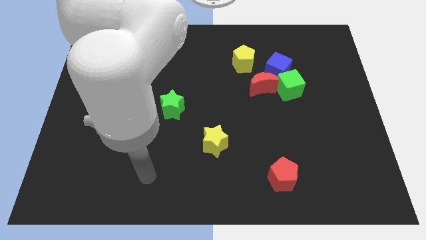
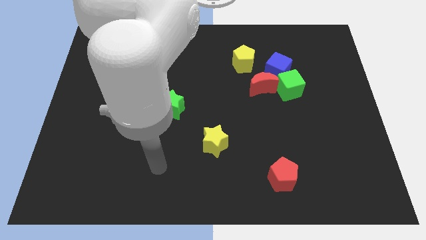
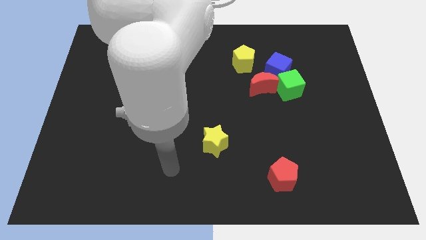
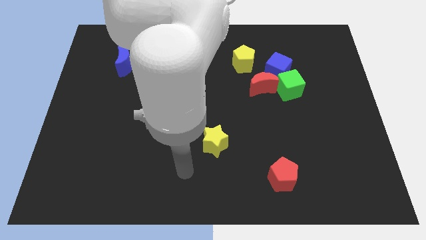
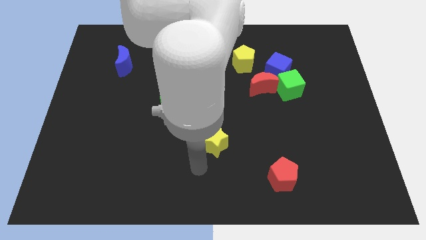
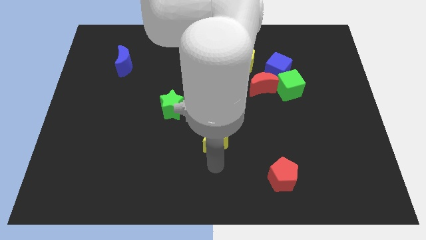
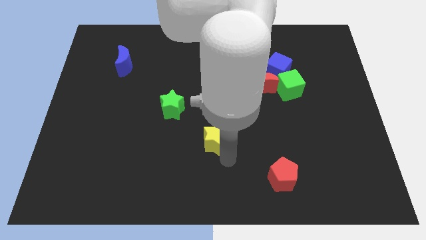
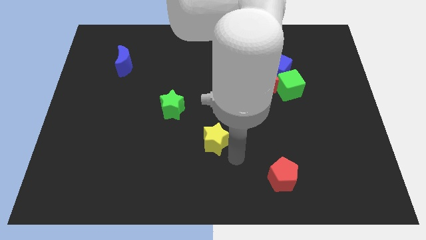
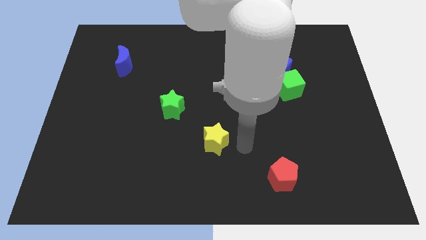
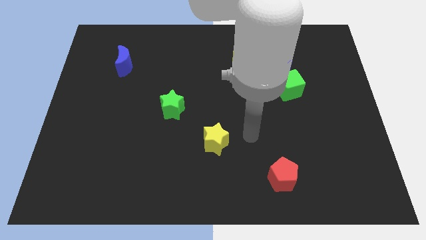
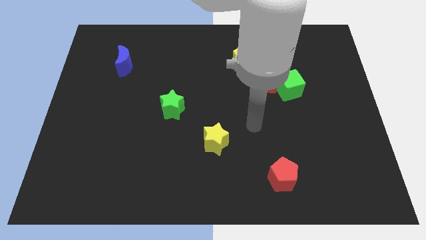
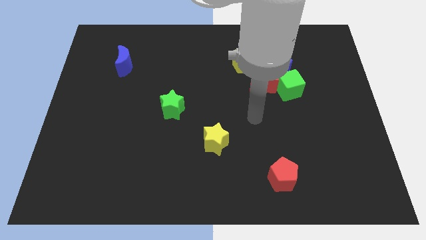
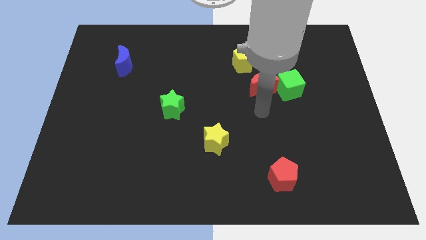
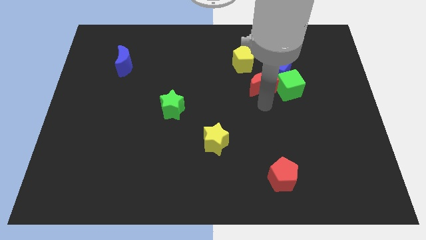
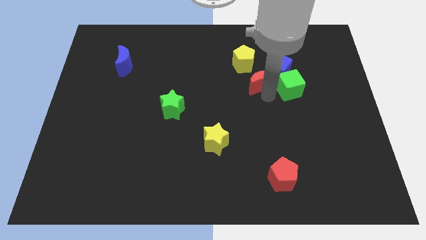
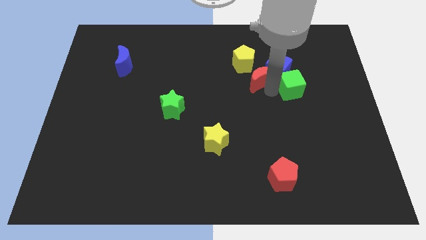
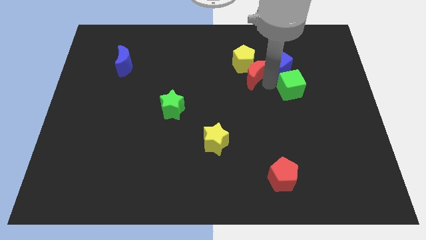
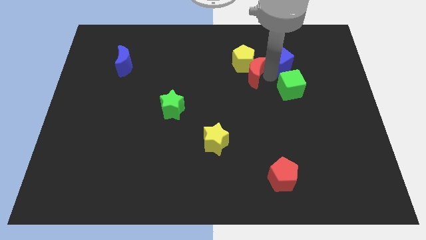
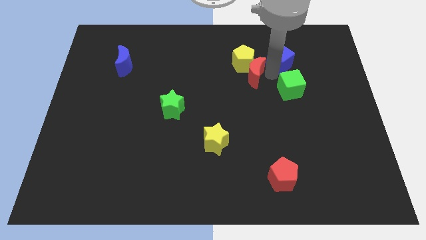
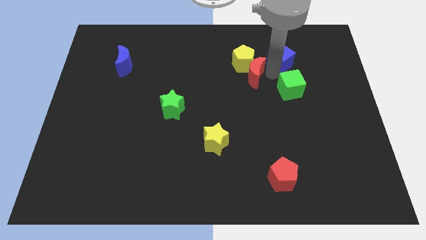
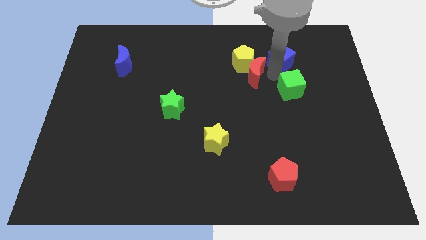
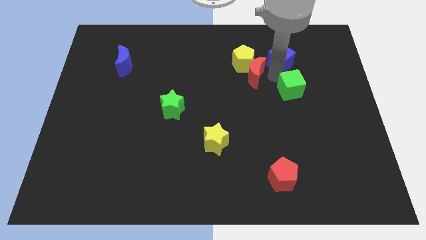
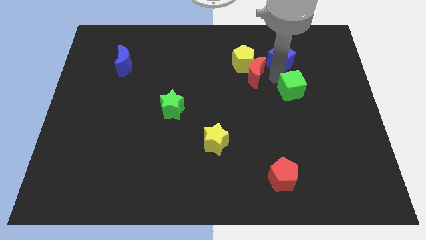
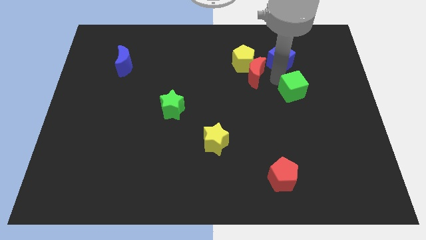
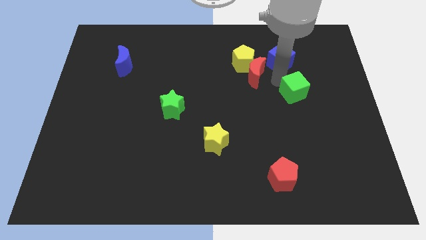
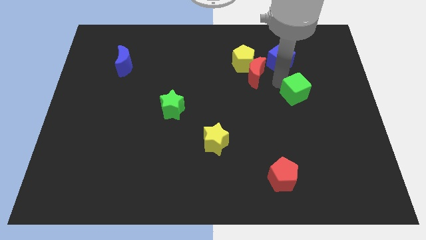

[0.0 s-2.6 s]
separate the green cube from the blue cube and red moon

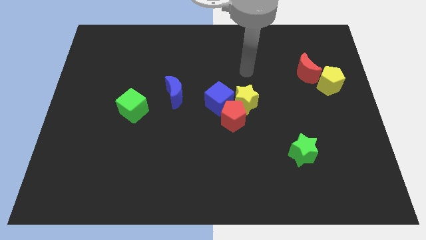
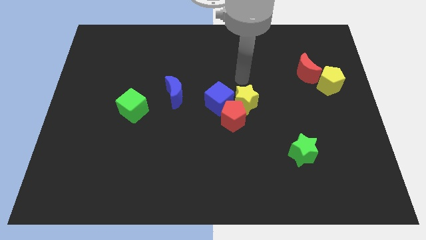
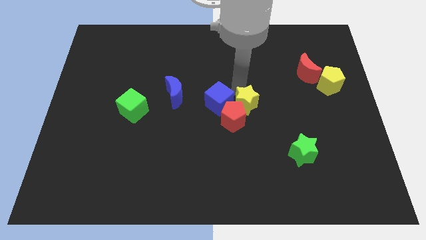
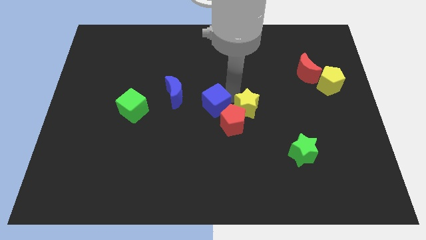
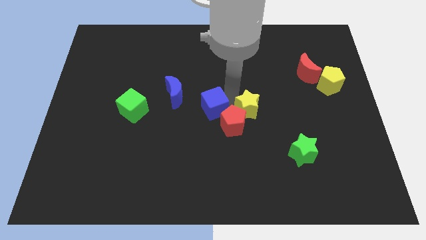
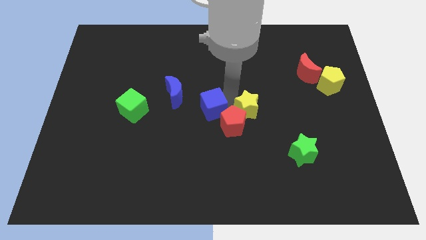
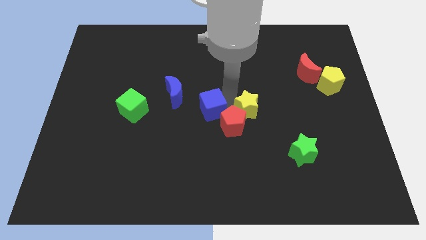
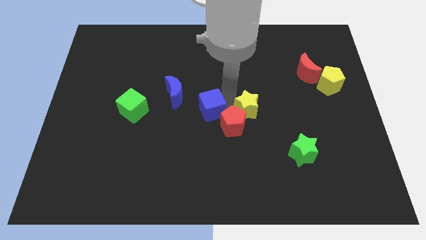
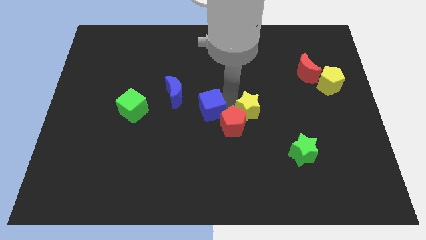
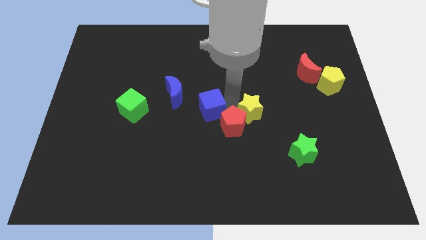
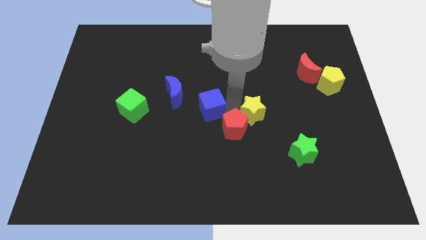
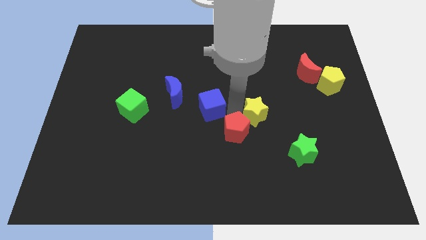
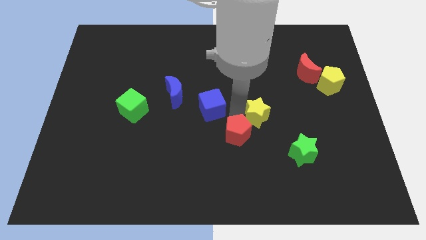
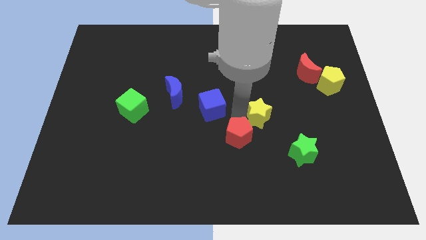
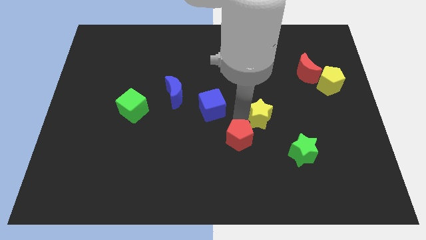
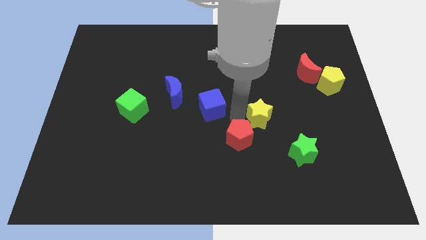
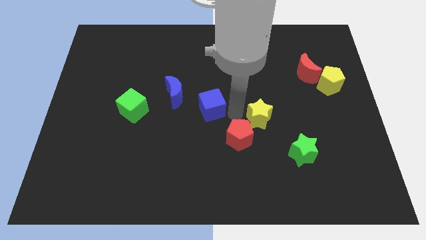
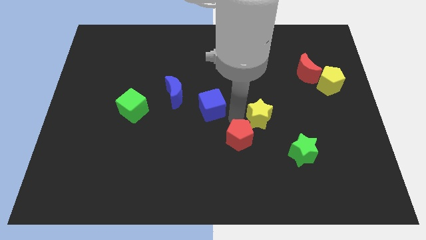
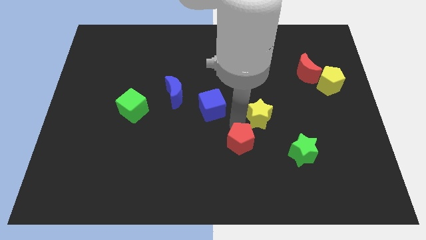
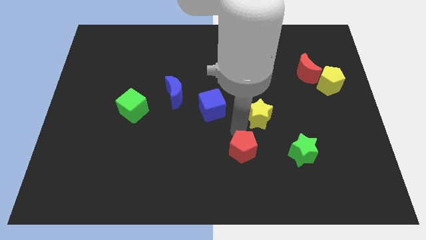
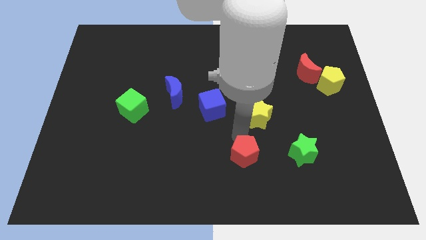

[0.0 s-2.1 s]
pull the red pentagon apart from the yellow star and blue cube

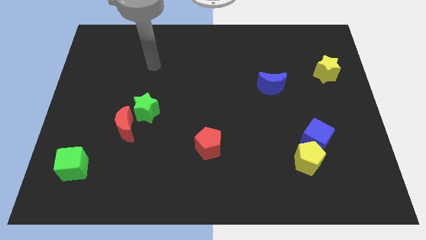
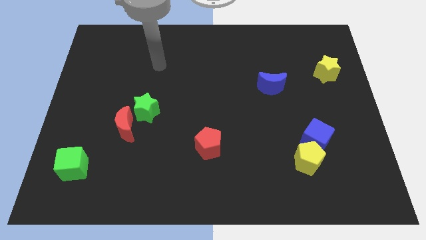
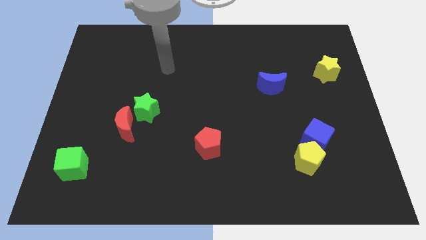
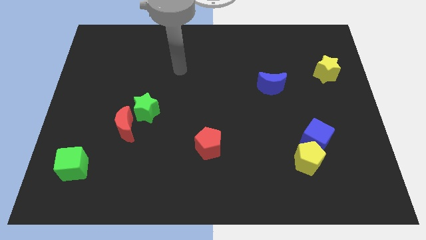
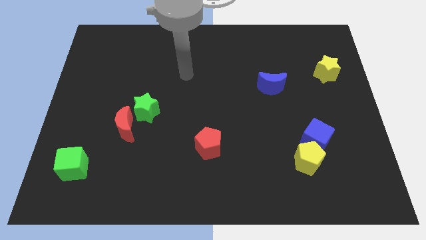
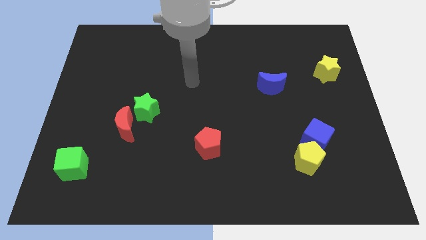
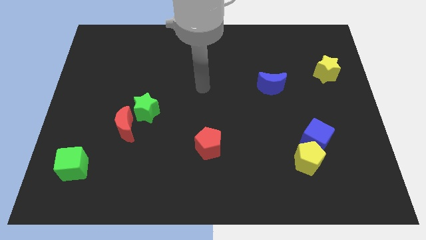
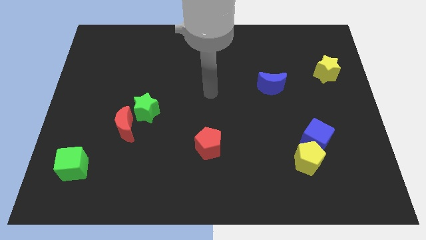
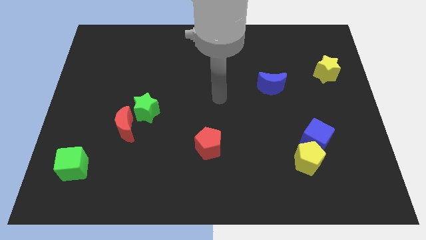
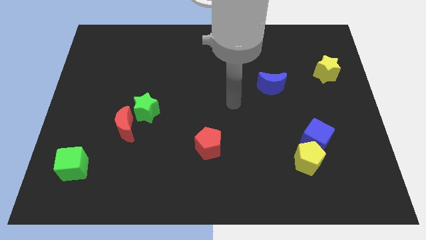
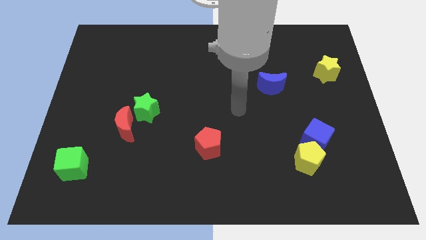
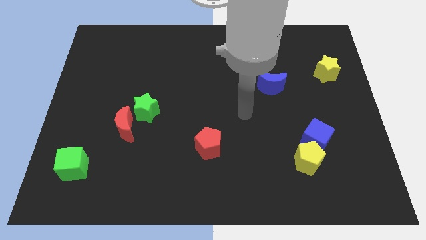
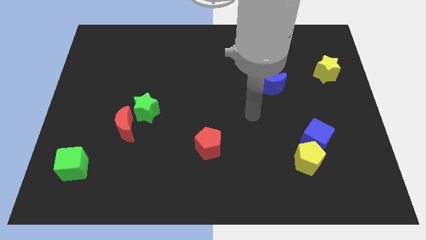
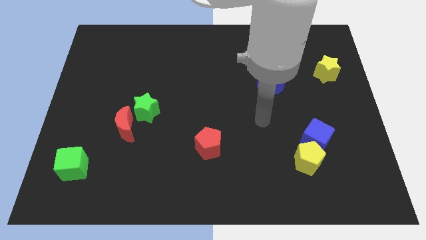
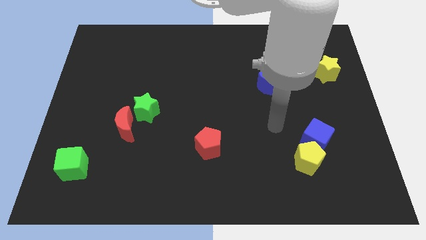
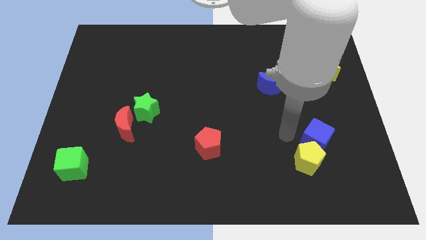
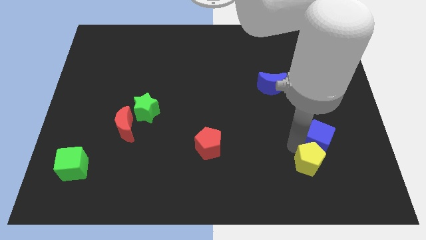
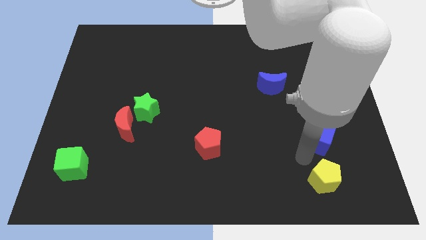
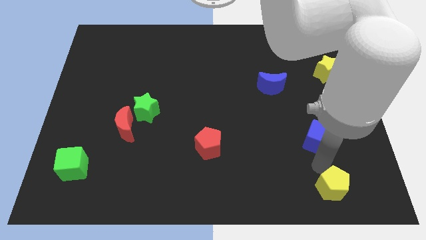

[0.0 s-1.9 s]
separate the blue cube from the yellow pentagon

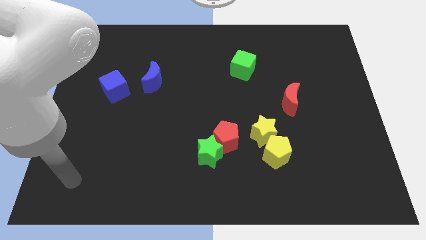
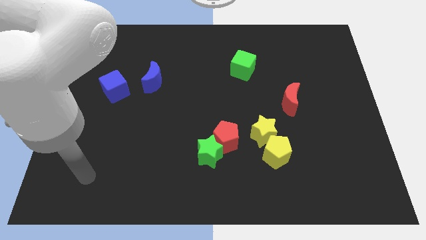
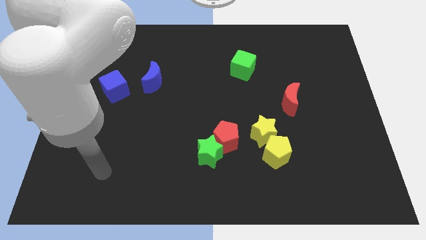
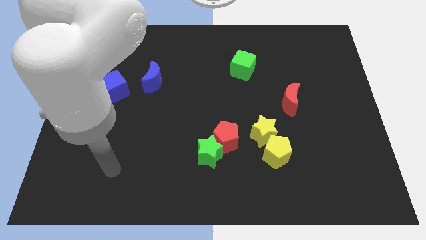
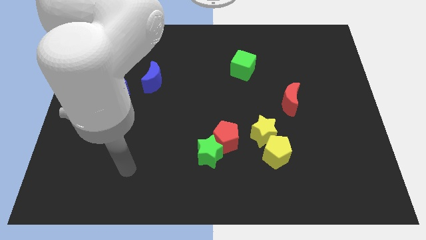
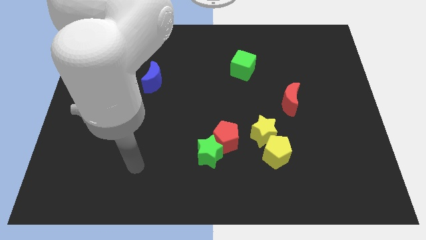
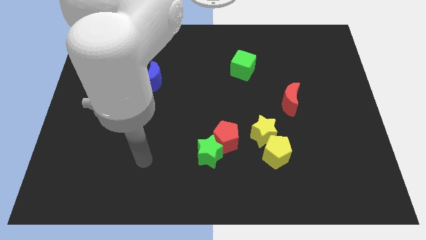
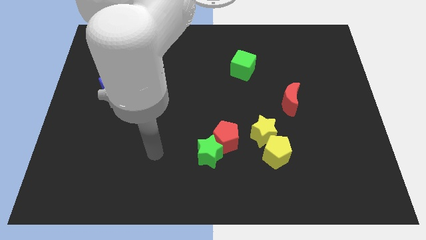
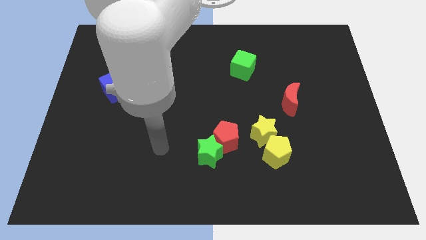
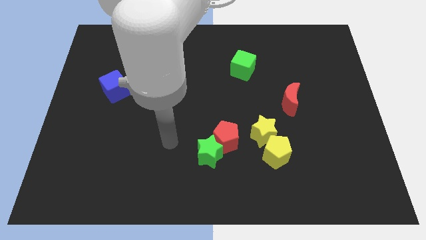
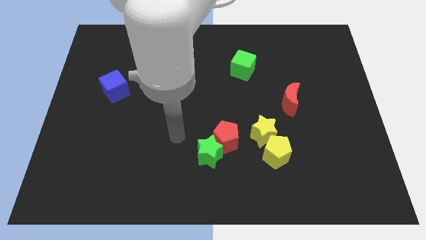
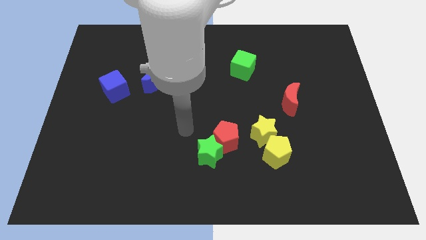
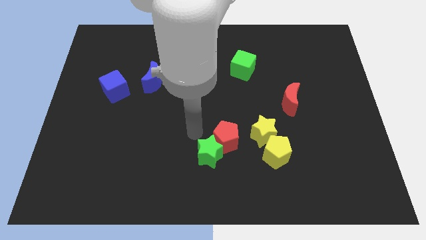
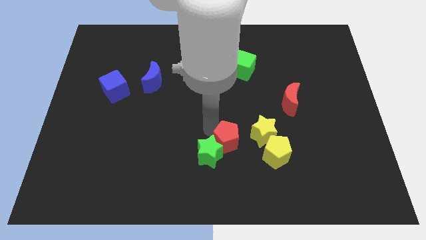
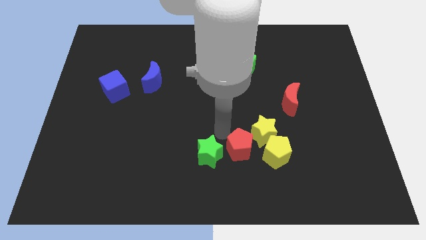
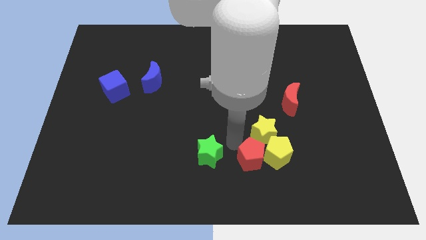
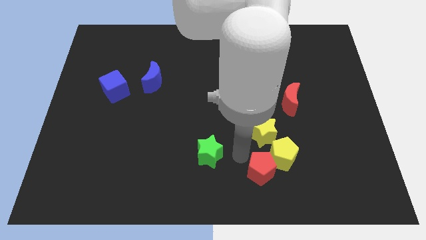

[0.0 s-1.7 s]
pull the green star apart from the red pentagon

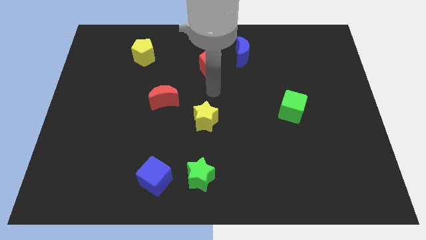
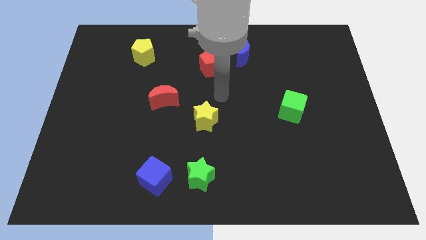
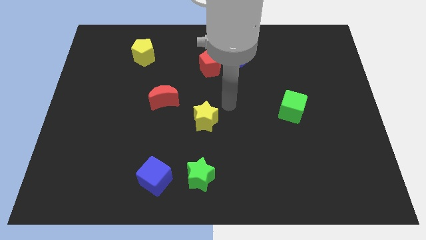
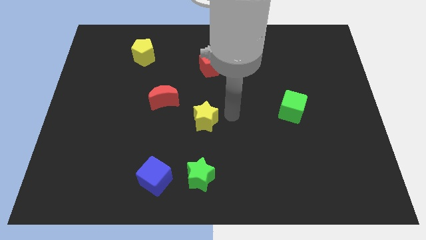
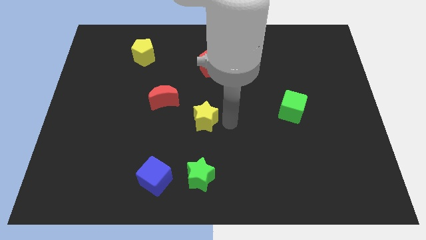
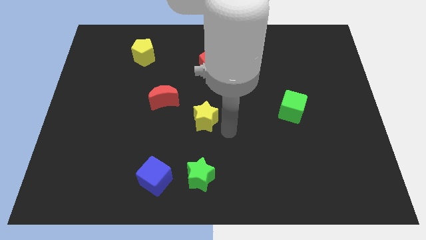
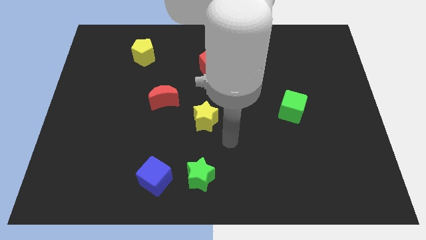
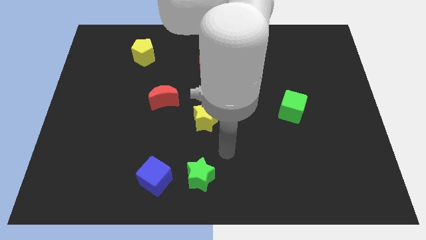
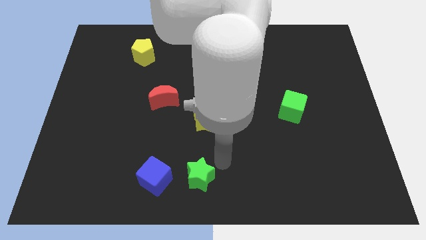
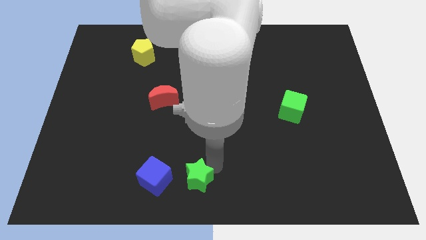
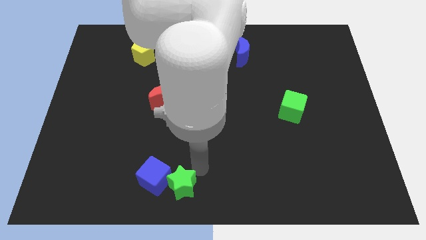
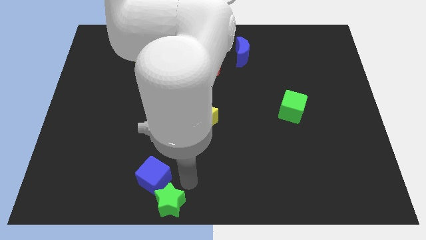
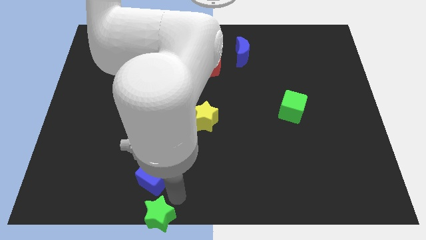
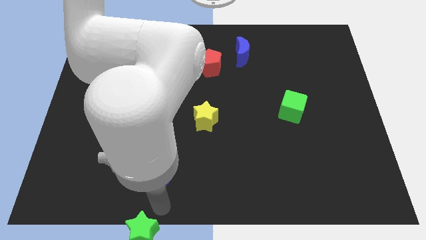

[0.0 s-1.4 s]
separate the blue cube from the green star
